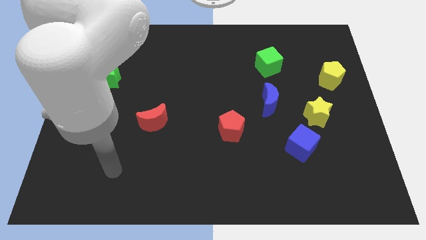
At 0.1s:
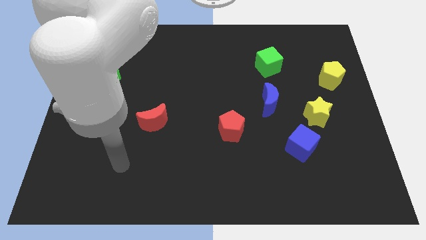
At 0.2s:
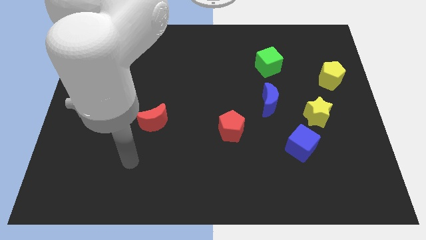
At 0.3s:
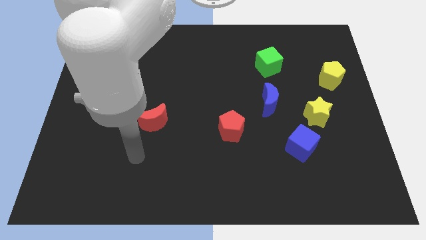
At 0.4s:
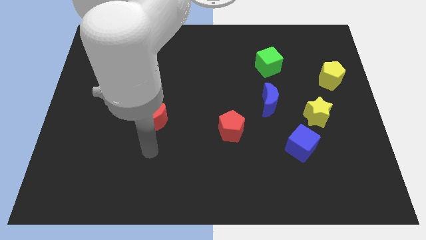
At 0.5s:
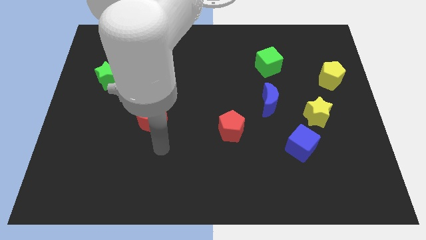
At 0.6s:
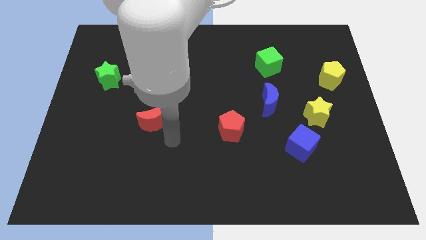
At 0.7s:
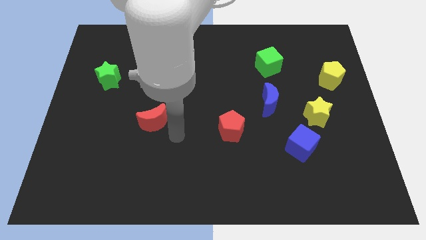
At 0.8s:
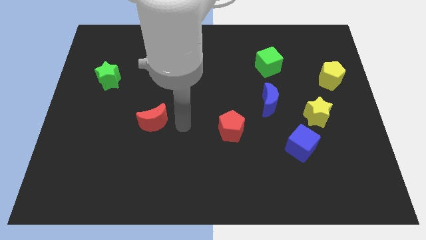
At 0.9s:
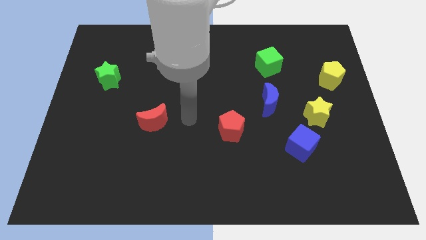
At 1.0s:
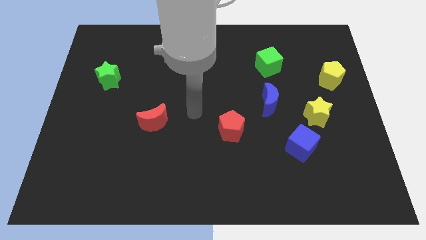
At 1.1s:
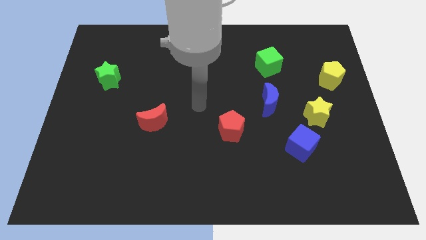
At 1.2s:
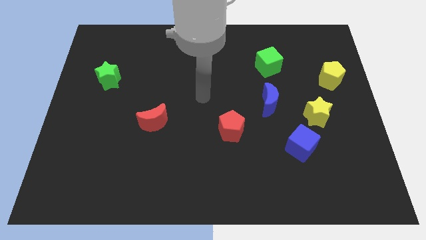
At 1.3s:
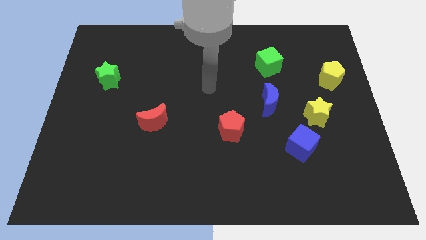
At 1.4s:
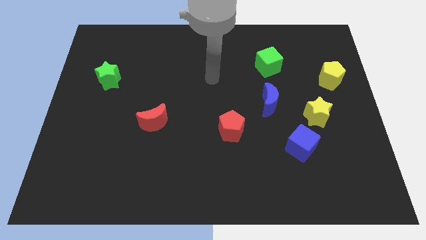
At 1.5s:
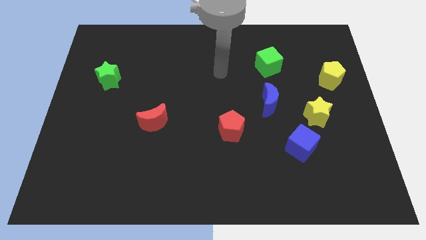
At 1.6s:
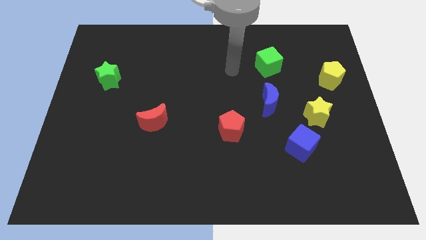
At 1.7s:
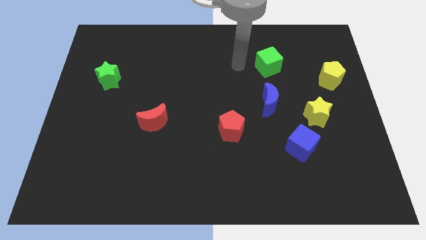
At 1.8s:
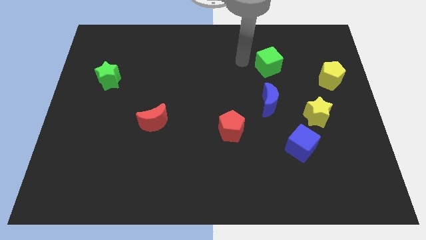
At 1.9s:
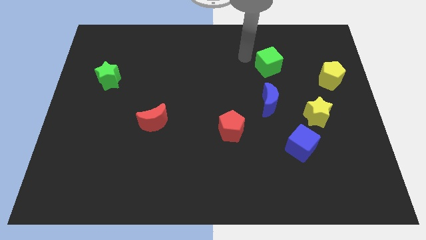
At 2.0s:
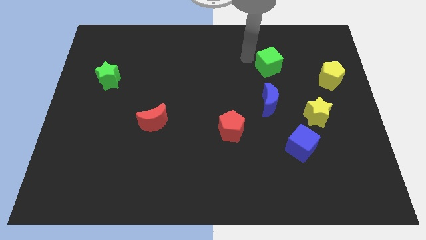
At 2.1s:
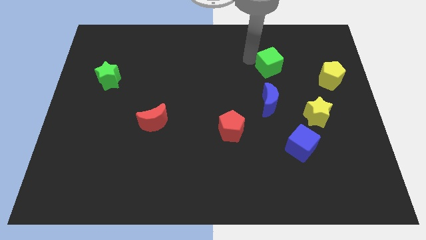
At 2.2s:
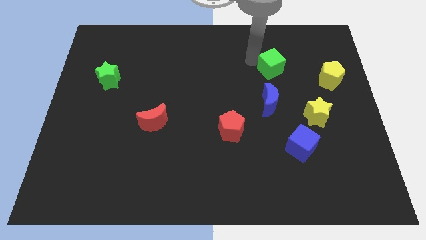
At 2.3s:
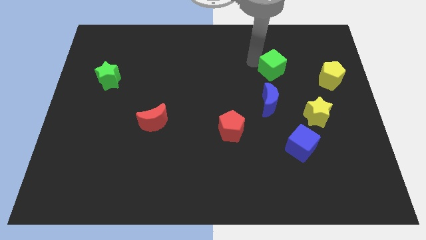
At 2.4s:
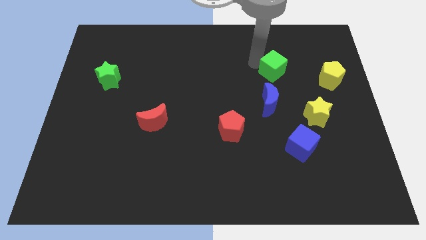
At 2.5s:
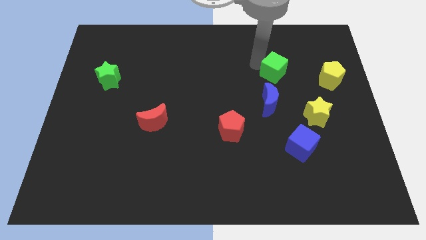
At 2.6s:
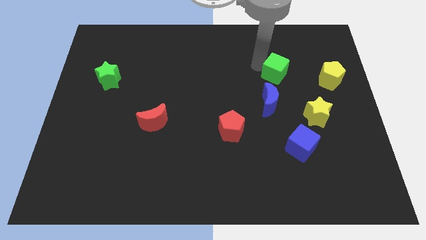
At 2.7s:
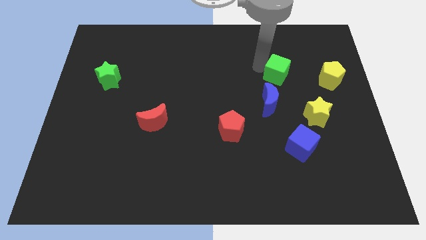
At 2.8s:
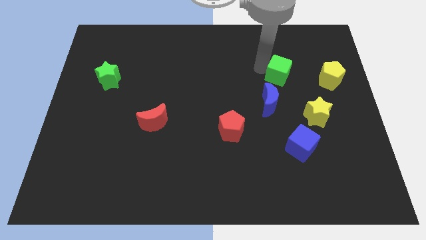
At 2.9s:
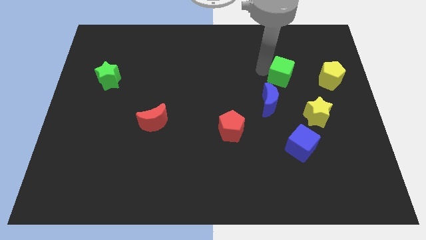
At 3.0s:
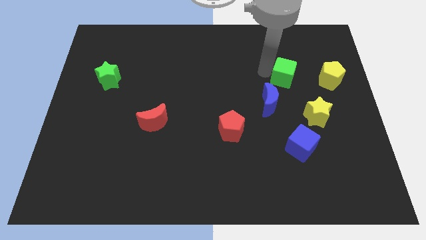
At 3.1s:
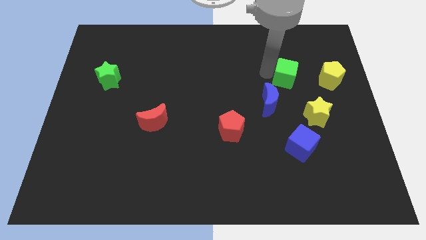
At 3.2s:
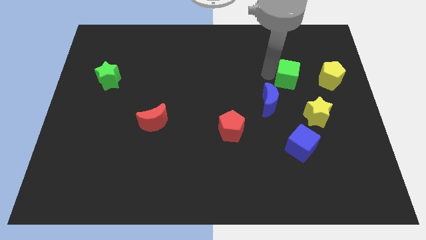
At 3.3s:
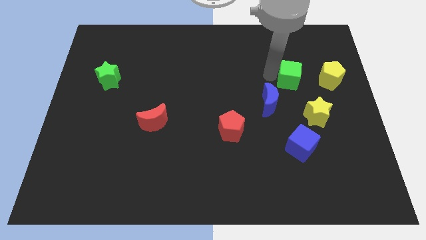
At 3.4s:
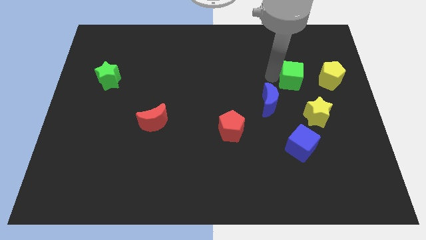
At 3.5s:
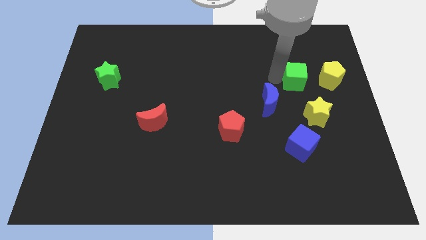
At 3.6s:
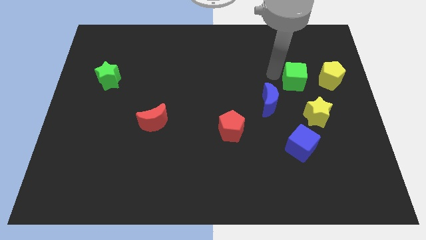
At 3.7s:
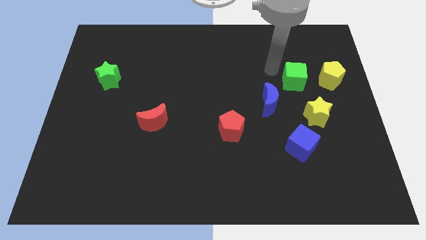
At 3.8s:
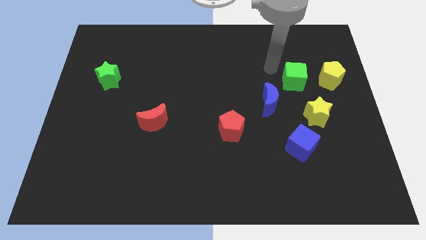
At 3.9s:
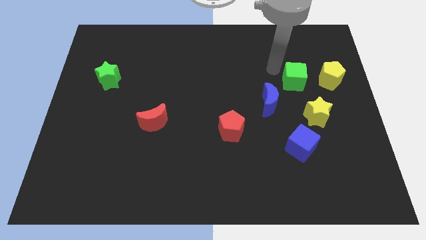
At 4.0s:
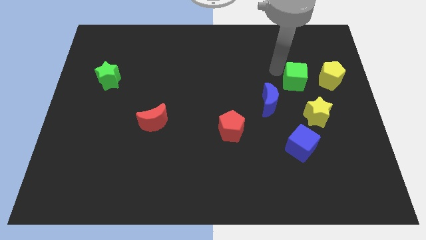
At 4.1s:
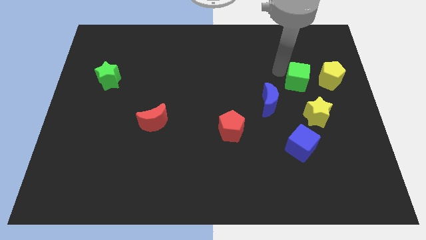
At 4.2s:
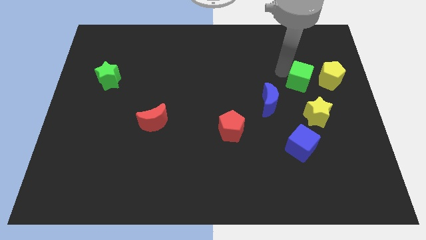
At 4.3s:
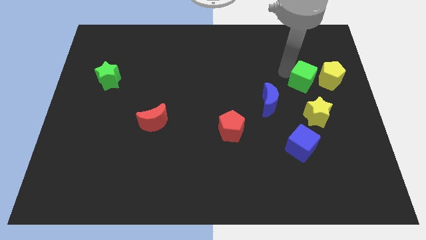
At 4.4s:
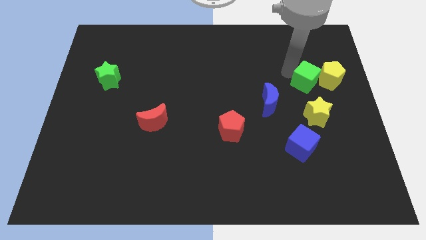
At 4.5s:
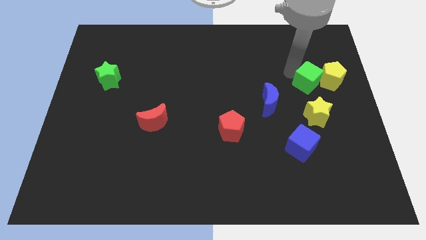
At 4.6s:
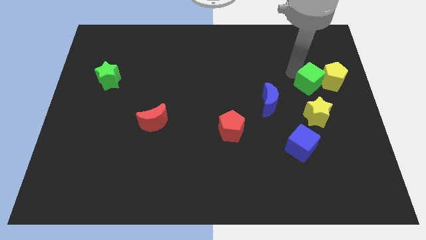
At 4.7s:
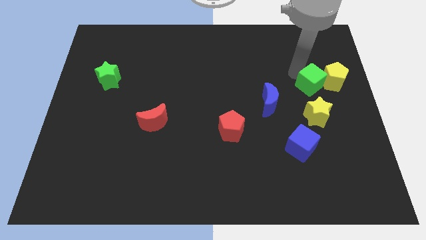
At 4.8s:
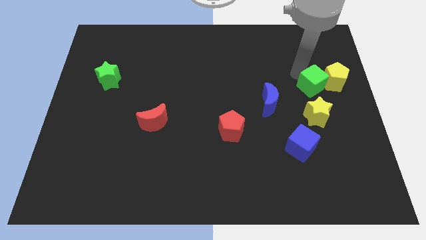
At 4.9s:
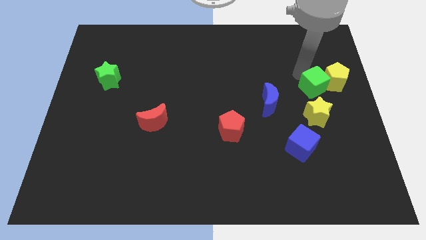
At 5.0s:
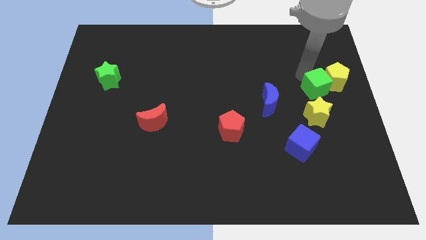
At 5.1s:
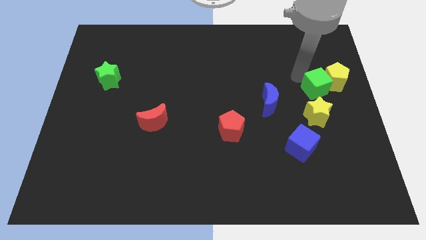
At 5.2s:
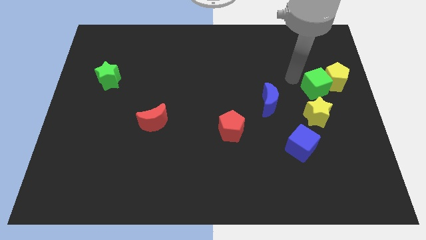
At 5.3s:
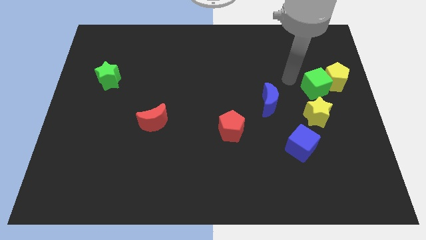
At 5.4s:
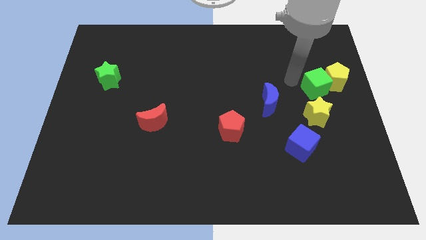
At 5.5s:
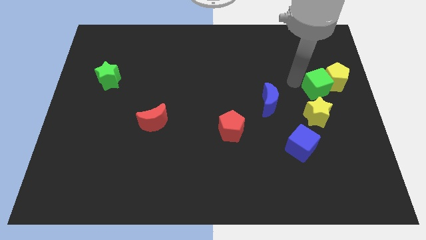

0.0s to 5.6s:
move the green cube to the center right

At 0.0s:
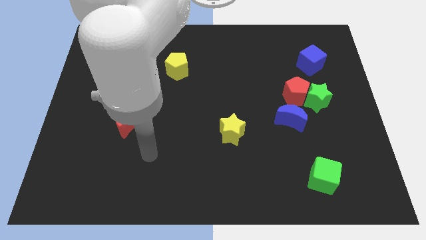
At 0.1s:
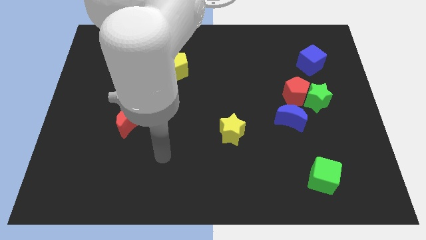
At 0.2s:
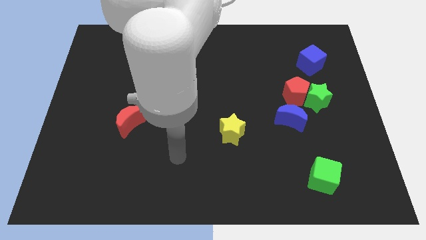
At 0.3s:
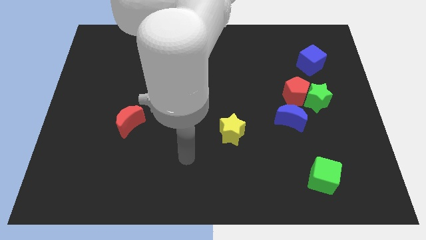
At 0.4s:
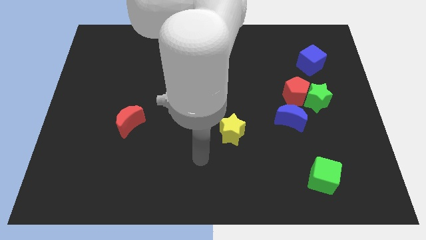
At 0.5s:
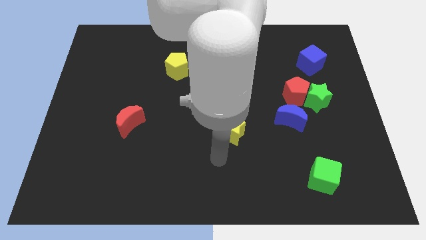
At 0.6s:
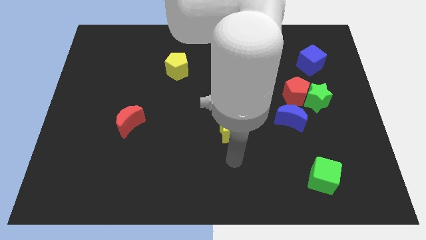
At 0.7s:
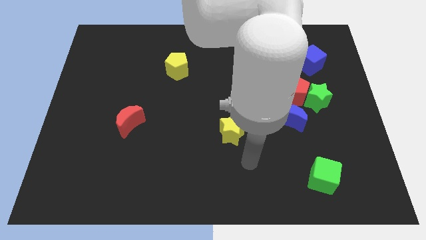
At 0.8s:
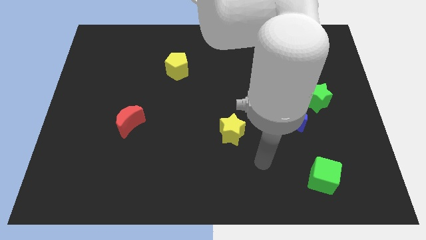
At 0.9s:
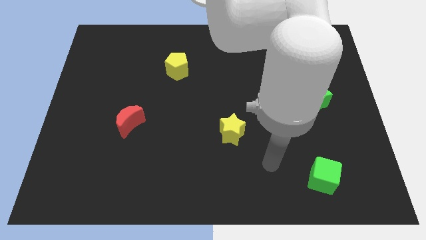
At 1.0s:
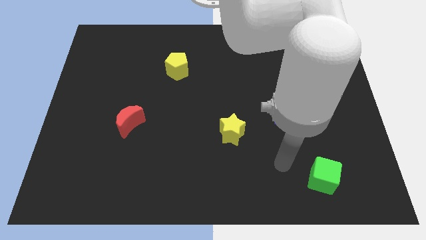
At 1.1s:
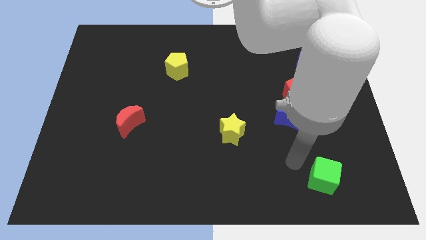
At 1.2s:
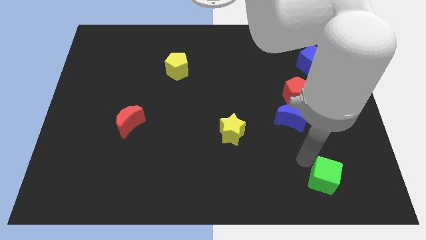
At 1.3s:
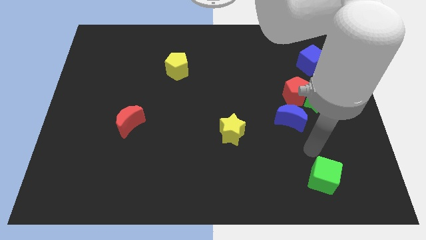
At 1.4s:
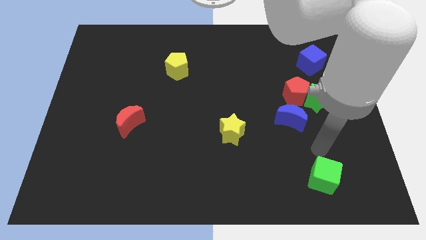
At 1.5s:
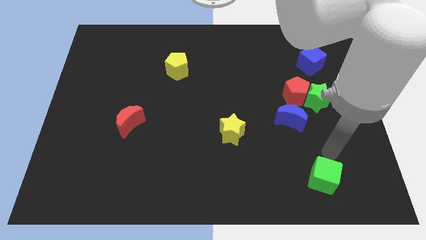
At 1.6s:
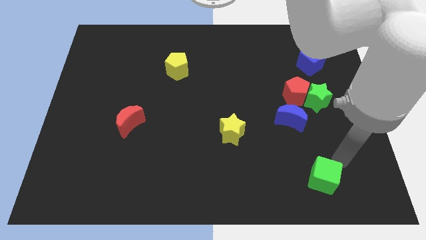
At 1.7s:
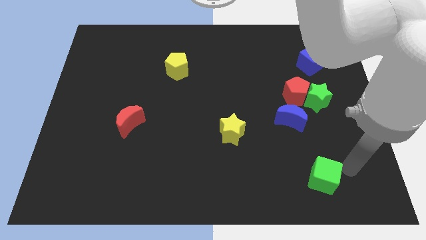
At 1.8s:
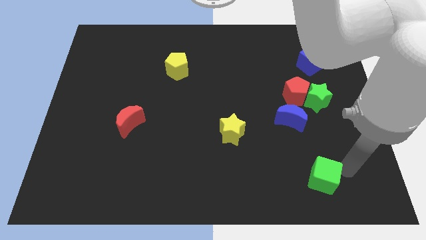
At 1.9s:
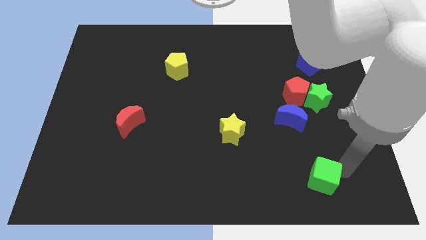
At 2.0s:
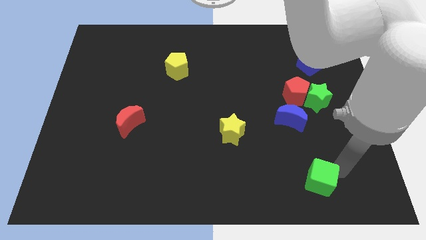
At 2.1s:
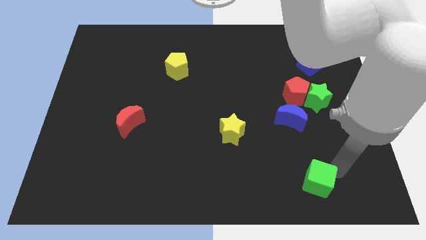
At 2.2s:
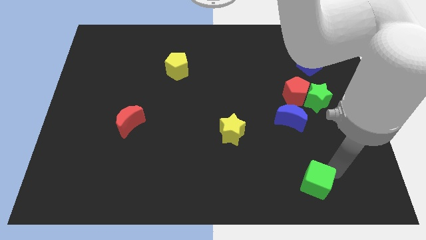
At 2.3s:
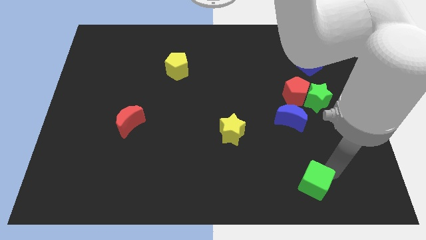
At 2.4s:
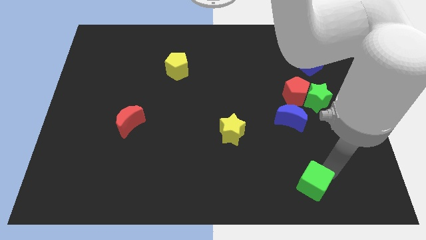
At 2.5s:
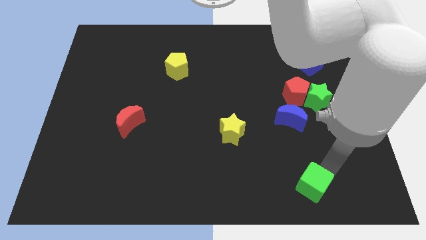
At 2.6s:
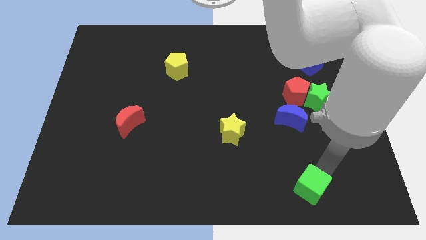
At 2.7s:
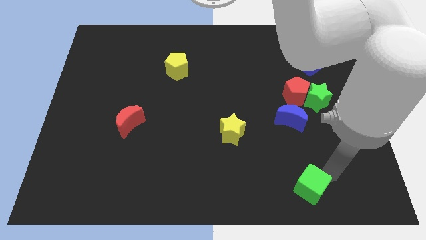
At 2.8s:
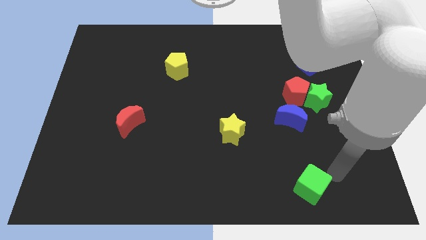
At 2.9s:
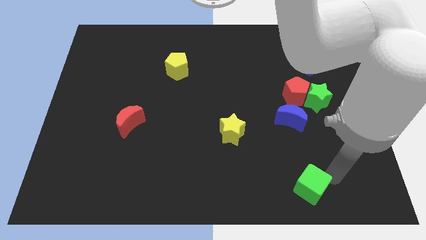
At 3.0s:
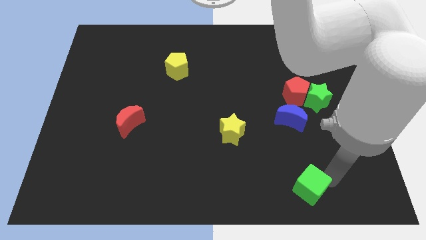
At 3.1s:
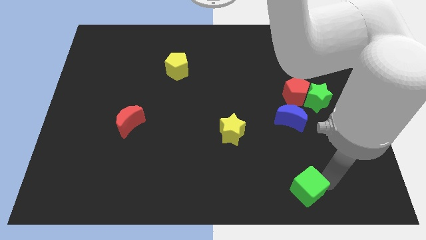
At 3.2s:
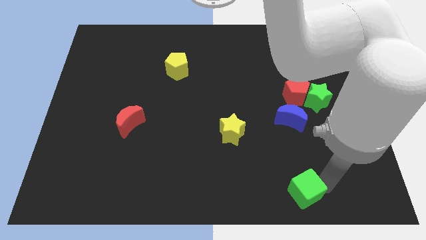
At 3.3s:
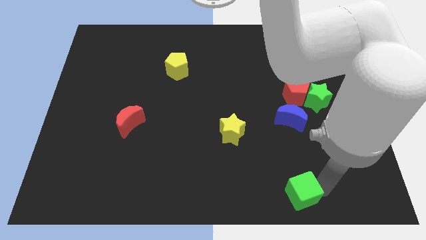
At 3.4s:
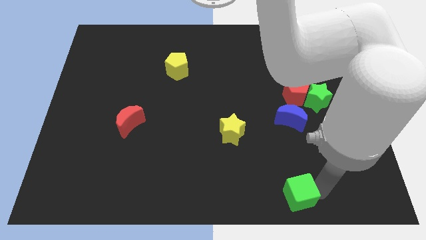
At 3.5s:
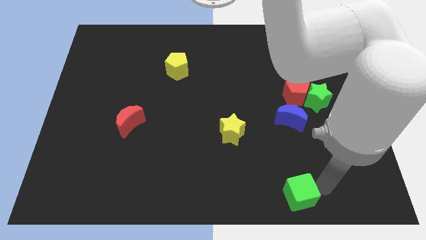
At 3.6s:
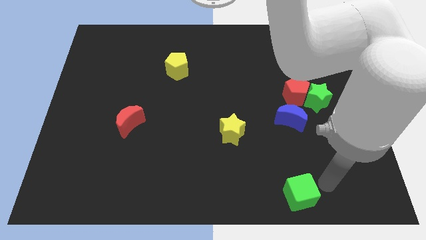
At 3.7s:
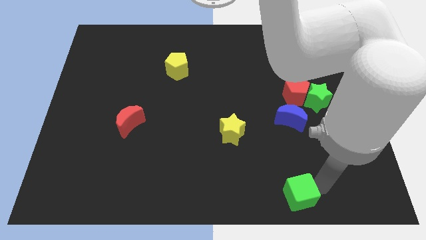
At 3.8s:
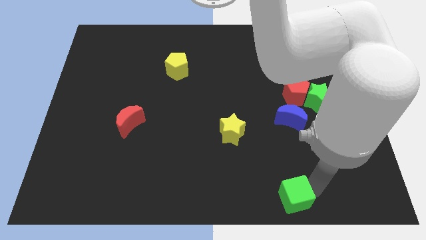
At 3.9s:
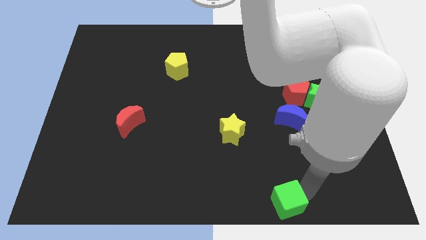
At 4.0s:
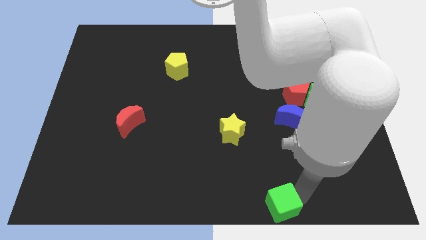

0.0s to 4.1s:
push the green cube to the bottom
